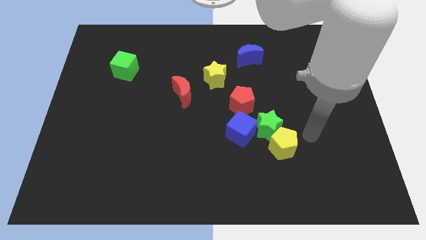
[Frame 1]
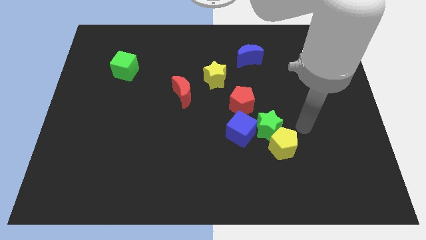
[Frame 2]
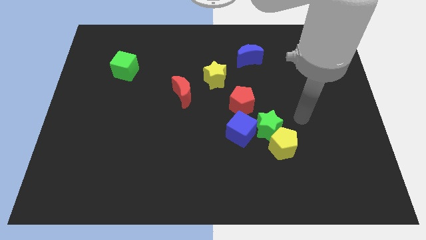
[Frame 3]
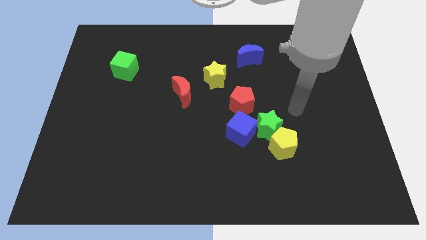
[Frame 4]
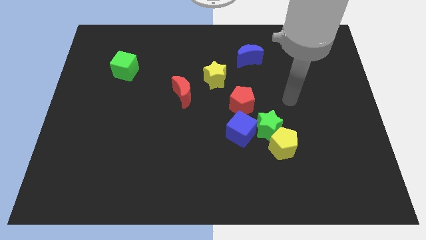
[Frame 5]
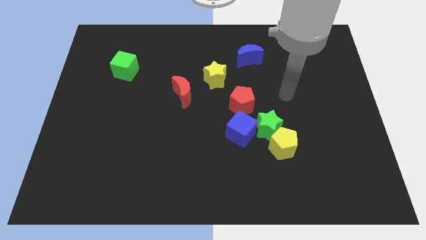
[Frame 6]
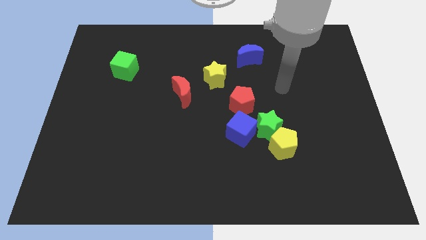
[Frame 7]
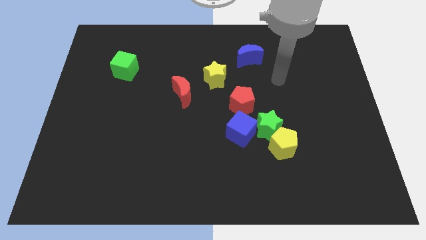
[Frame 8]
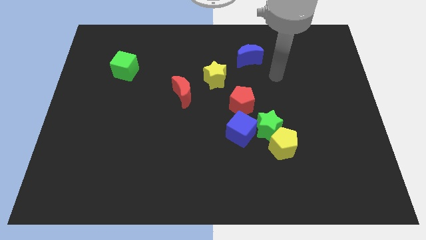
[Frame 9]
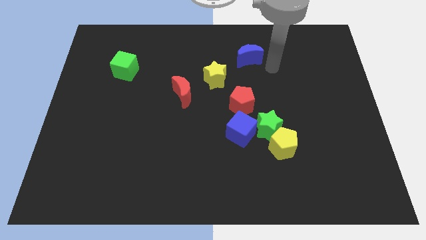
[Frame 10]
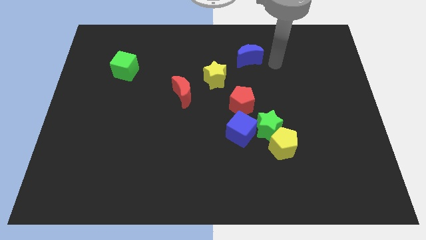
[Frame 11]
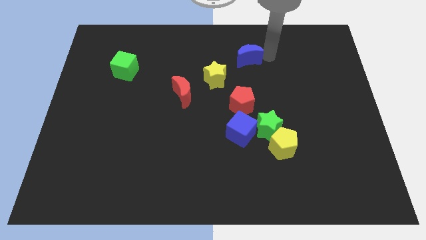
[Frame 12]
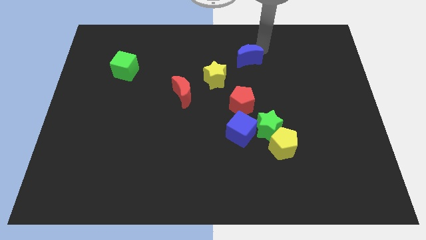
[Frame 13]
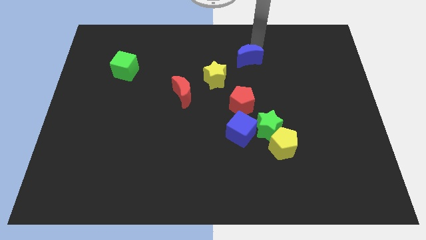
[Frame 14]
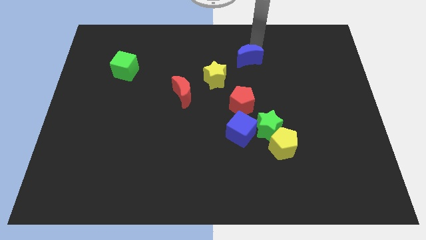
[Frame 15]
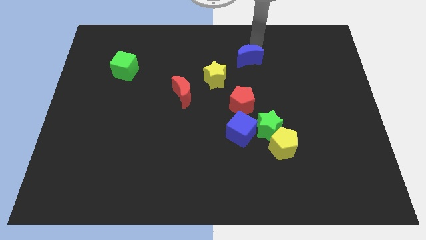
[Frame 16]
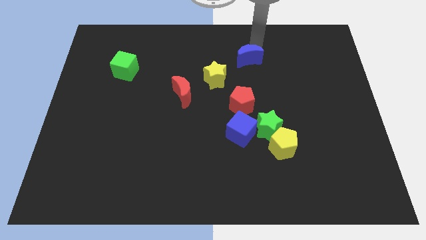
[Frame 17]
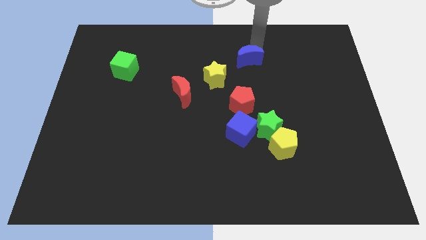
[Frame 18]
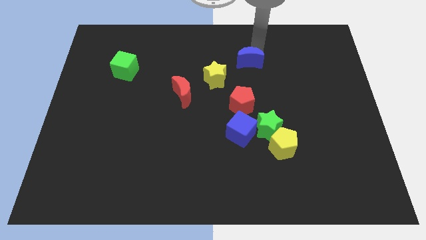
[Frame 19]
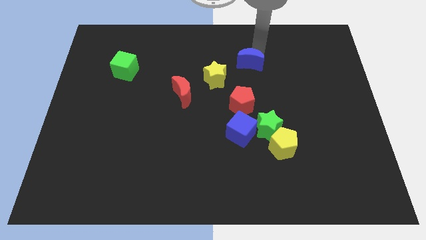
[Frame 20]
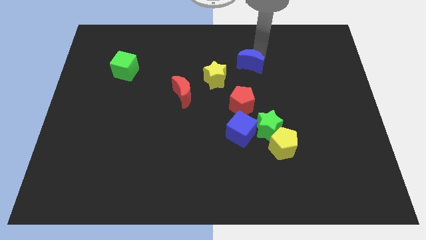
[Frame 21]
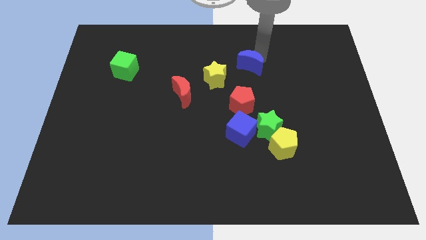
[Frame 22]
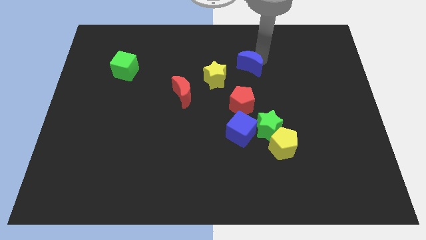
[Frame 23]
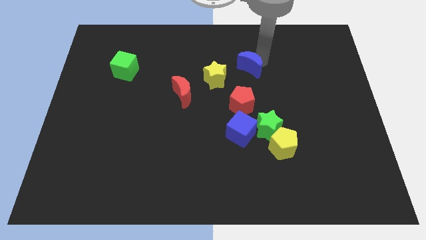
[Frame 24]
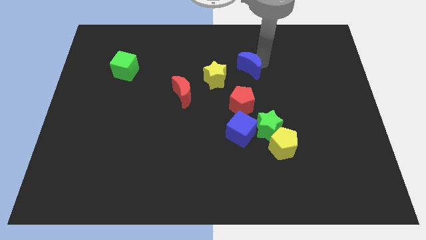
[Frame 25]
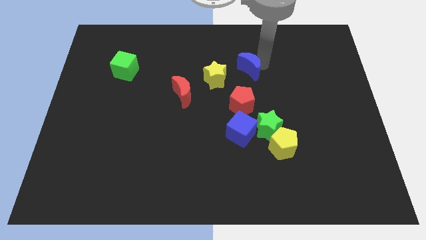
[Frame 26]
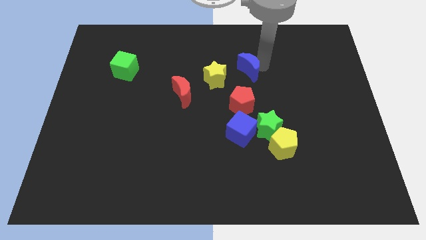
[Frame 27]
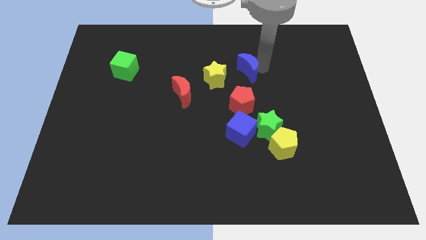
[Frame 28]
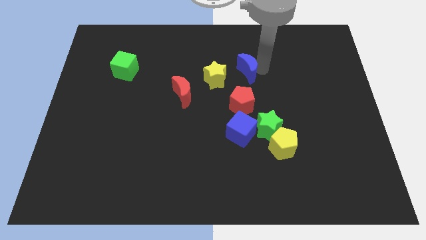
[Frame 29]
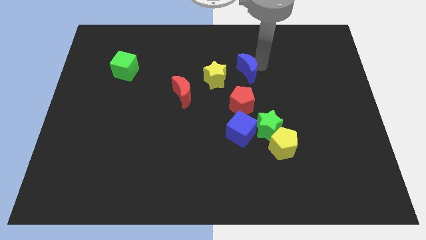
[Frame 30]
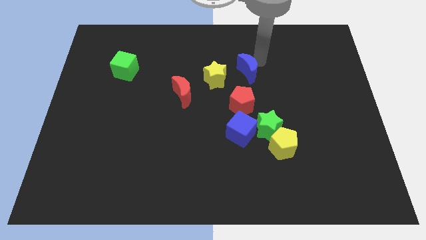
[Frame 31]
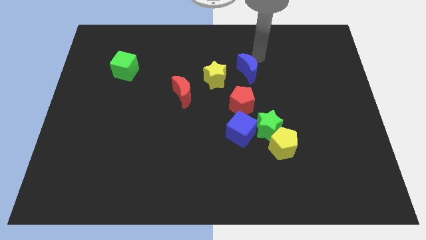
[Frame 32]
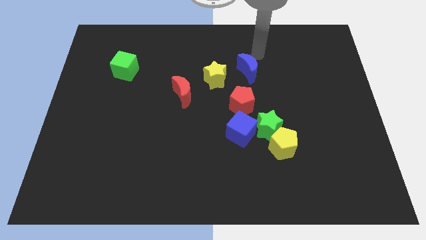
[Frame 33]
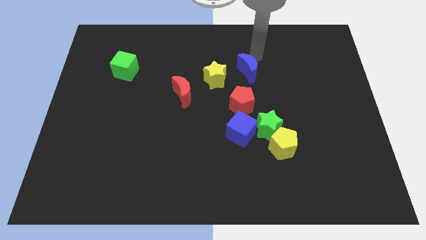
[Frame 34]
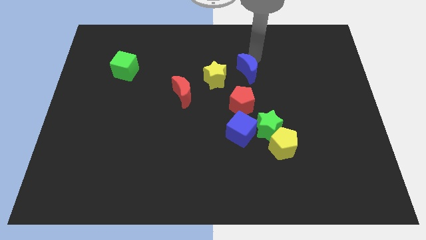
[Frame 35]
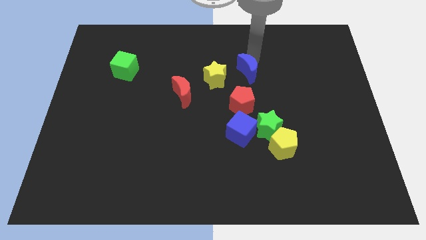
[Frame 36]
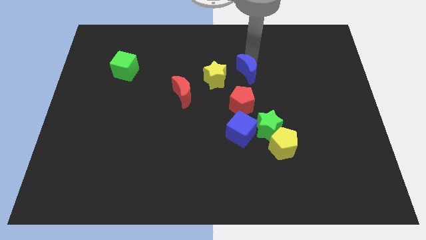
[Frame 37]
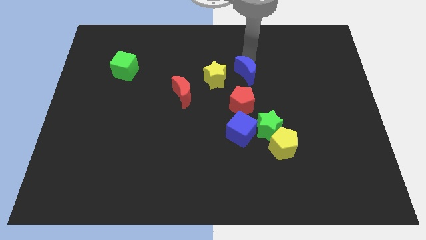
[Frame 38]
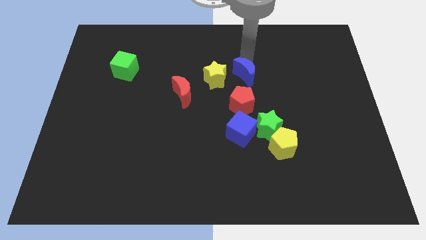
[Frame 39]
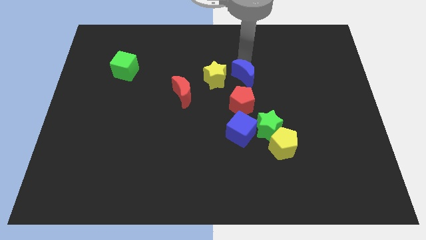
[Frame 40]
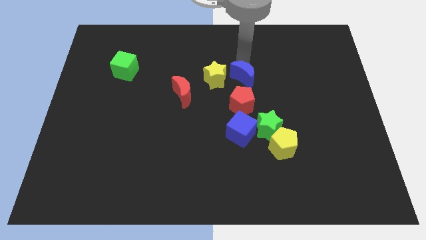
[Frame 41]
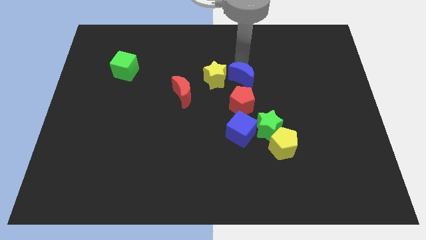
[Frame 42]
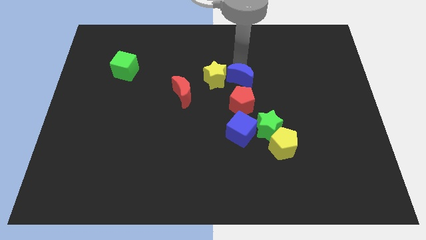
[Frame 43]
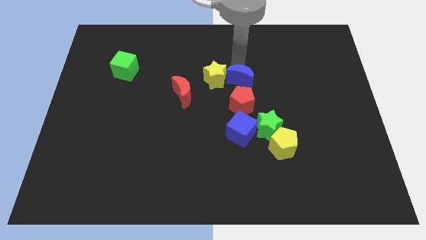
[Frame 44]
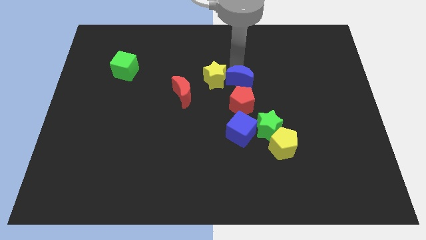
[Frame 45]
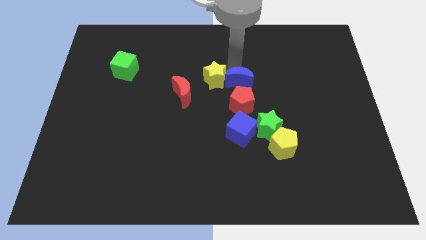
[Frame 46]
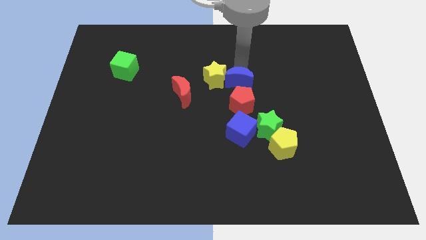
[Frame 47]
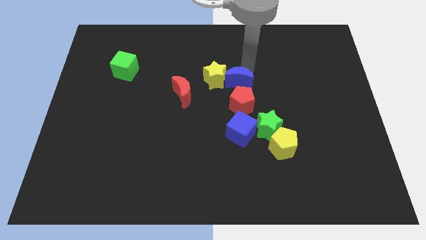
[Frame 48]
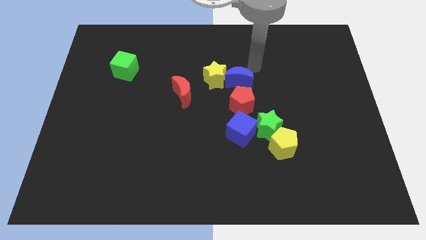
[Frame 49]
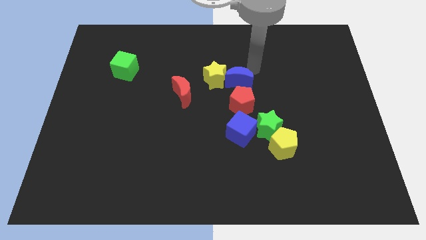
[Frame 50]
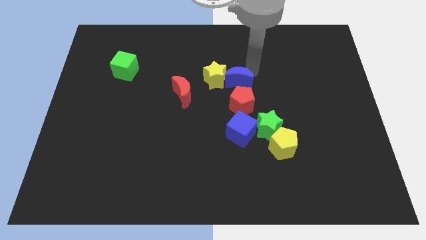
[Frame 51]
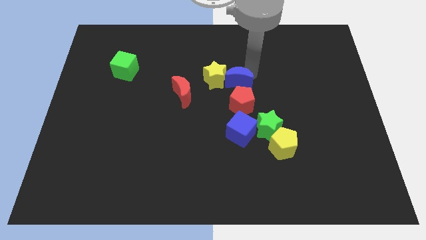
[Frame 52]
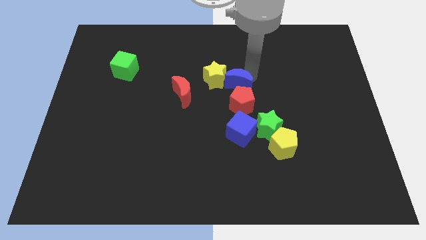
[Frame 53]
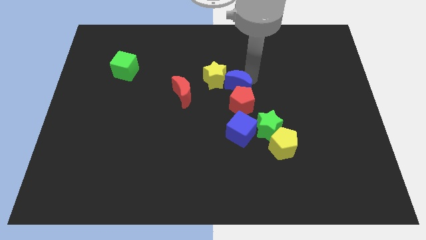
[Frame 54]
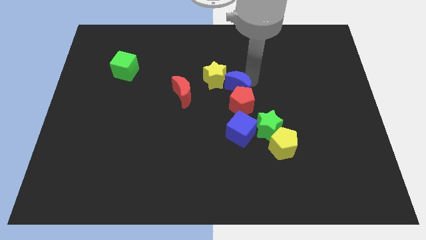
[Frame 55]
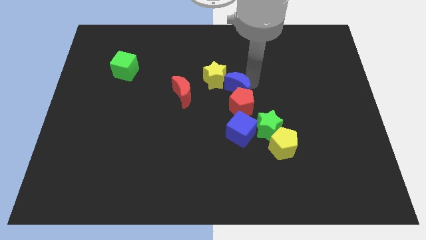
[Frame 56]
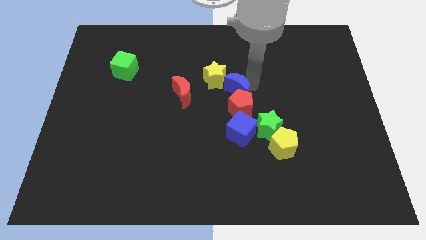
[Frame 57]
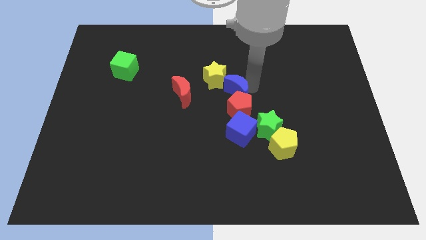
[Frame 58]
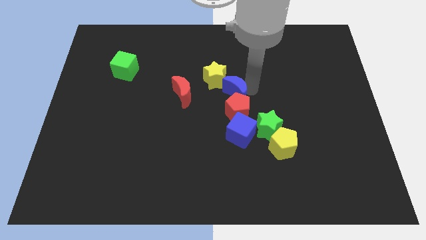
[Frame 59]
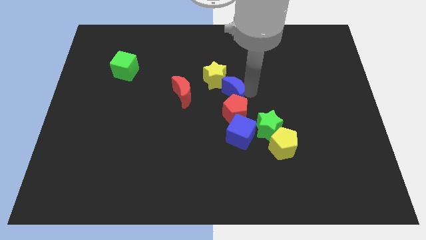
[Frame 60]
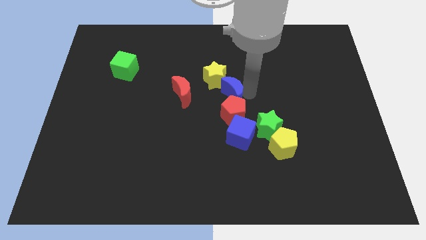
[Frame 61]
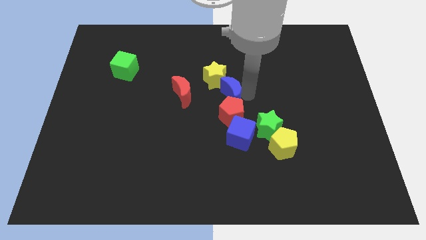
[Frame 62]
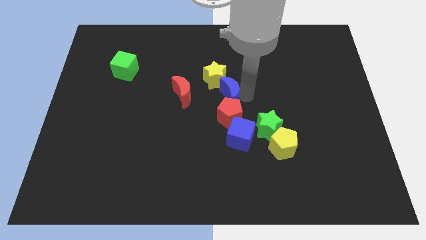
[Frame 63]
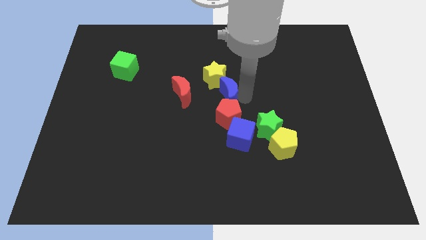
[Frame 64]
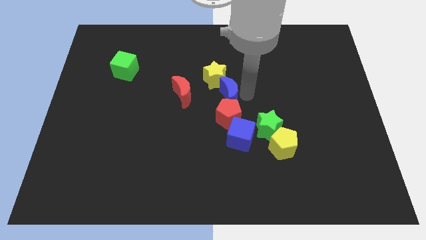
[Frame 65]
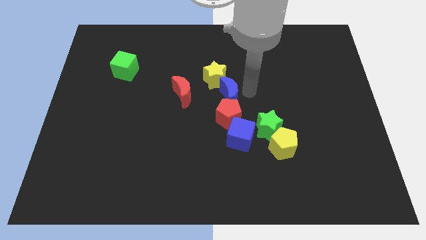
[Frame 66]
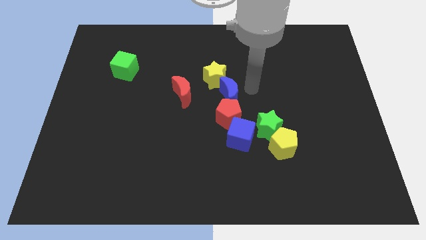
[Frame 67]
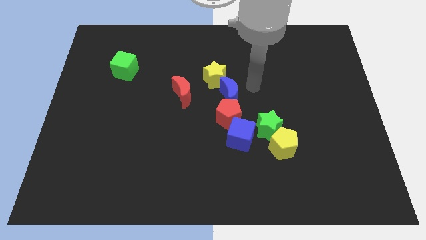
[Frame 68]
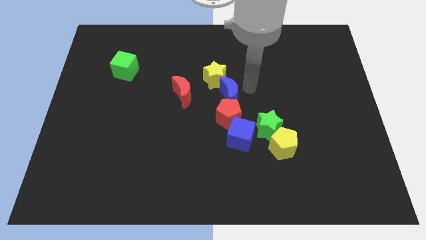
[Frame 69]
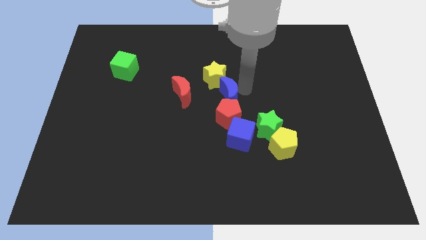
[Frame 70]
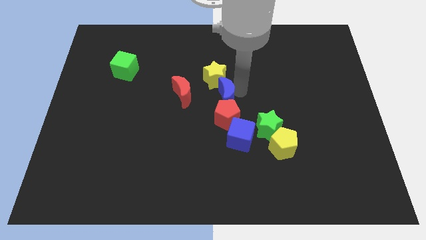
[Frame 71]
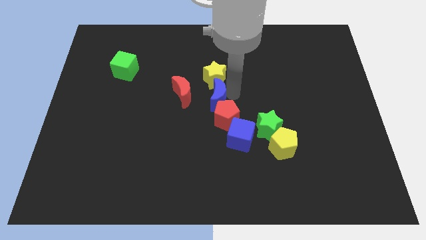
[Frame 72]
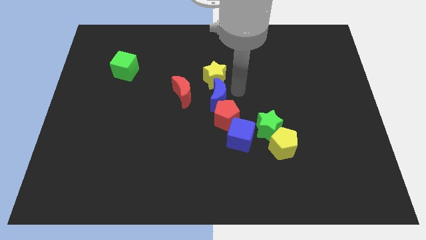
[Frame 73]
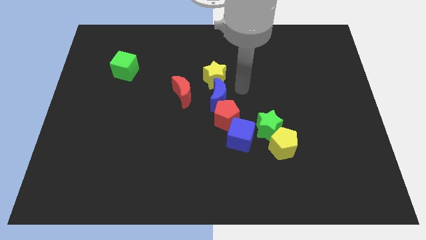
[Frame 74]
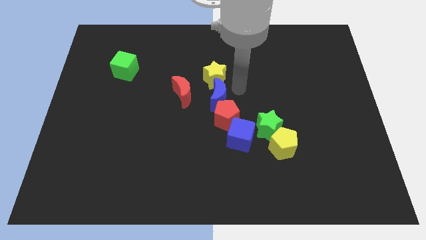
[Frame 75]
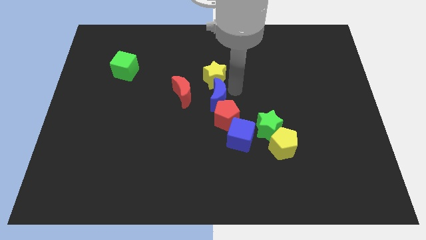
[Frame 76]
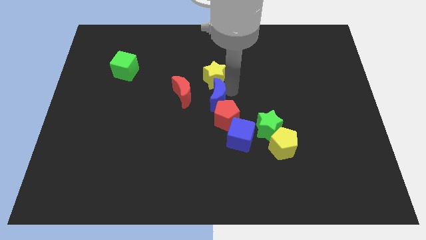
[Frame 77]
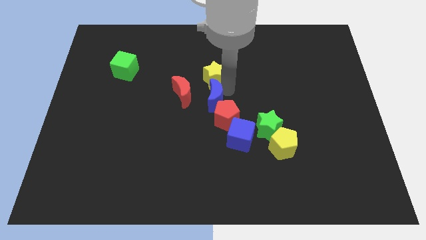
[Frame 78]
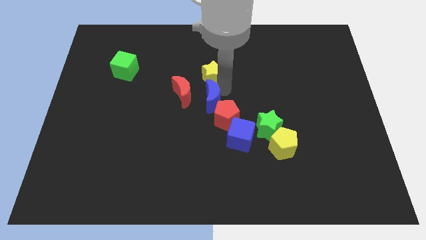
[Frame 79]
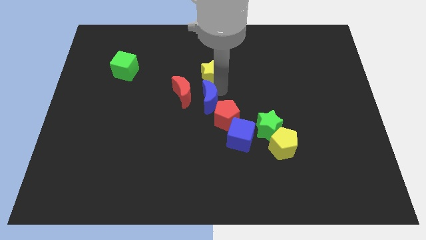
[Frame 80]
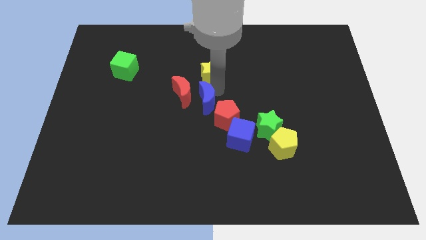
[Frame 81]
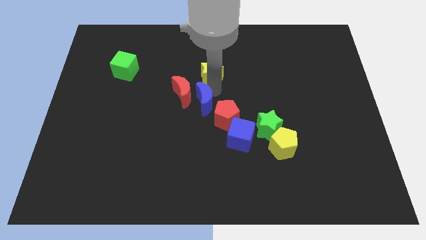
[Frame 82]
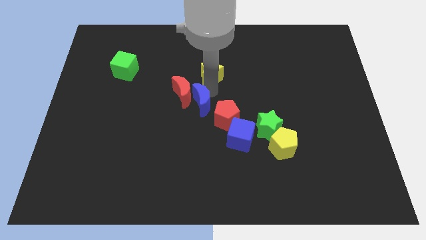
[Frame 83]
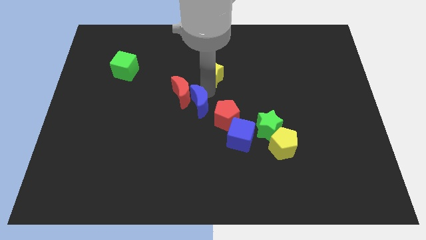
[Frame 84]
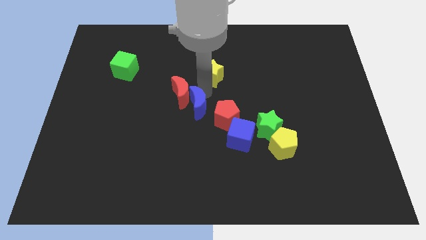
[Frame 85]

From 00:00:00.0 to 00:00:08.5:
move the blue moon diagonally downwards and left
